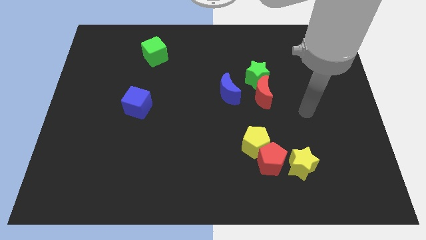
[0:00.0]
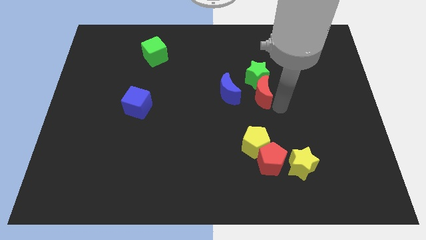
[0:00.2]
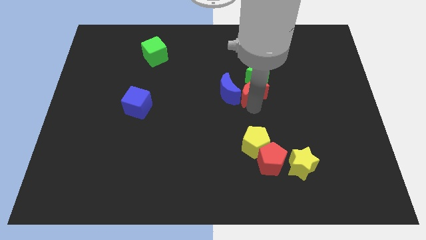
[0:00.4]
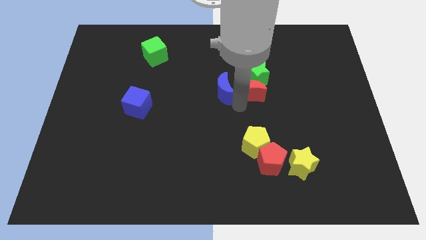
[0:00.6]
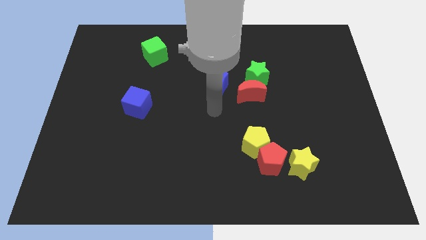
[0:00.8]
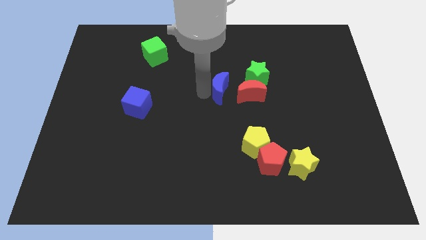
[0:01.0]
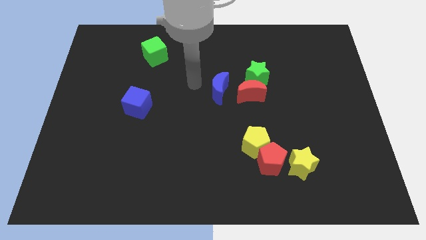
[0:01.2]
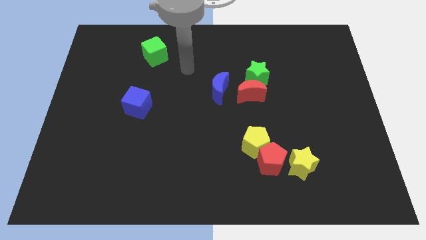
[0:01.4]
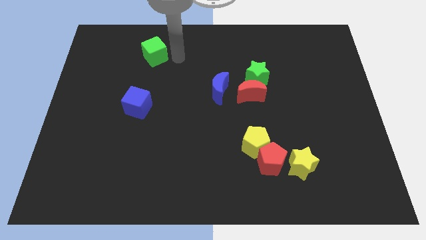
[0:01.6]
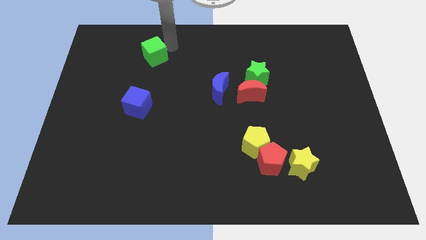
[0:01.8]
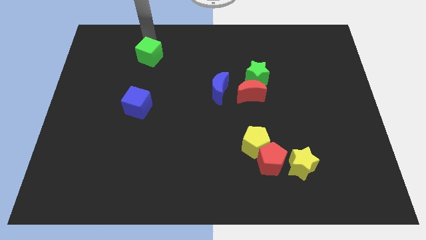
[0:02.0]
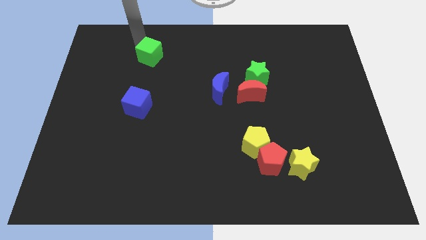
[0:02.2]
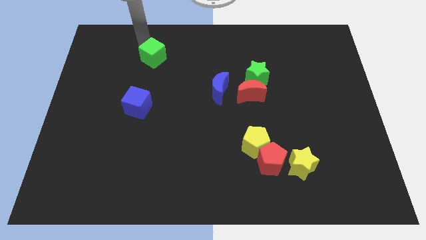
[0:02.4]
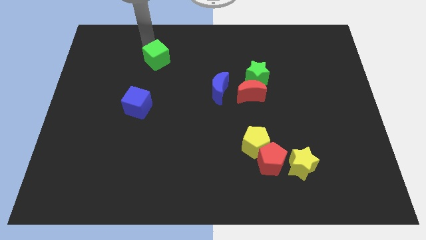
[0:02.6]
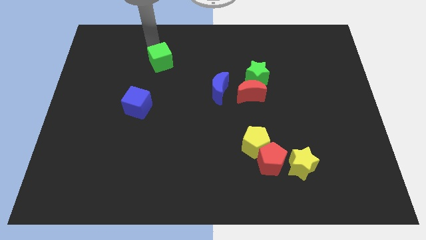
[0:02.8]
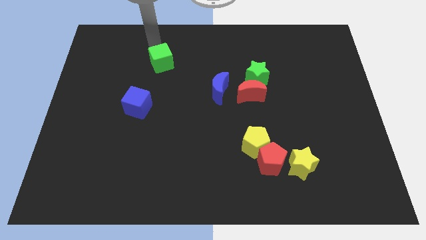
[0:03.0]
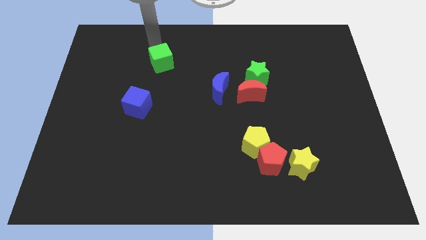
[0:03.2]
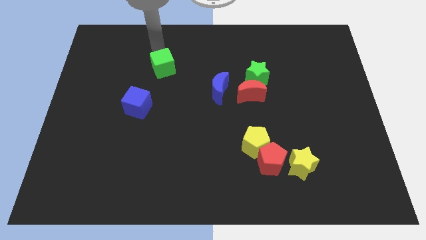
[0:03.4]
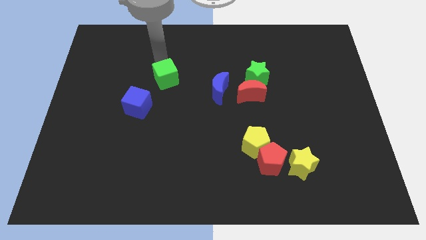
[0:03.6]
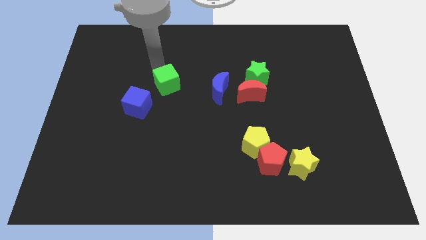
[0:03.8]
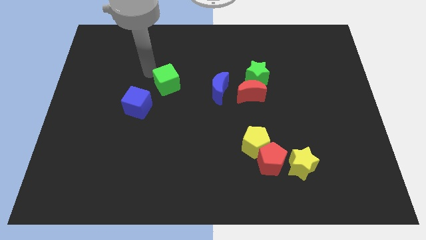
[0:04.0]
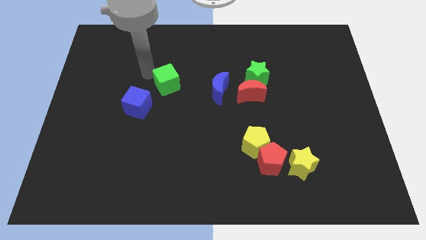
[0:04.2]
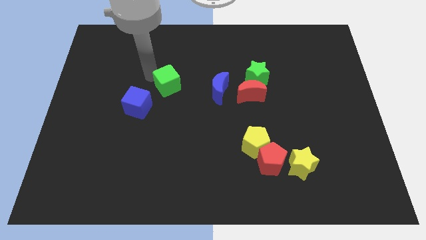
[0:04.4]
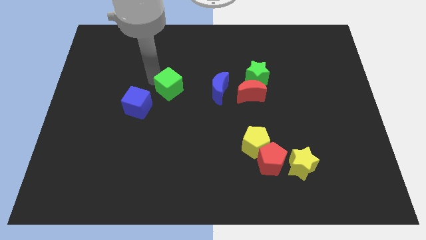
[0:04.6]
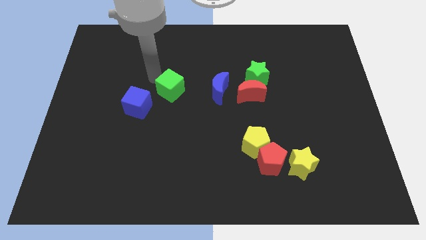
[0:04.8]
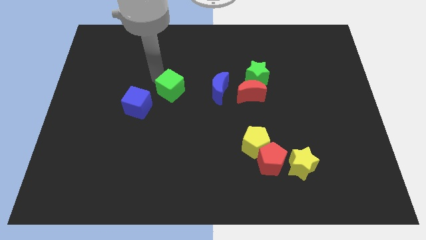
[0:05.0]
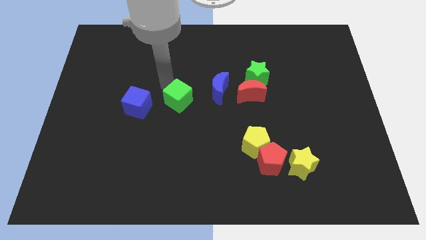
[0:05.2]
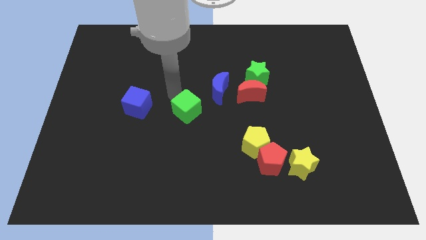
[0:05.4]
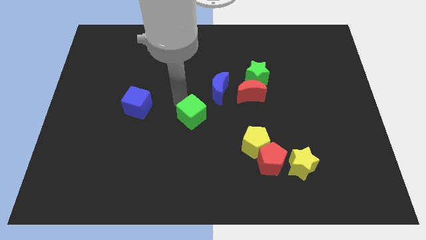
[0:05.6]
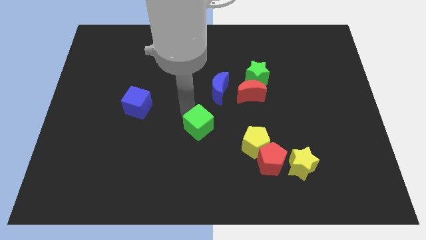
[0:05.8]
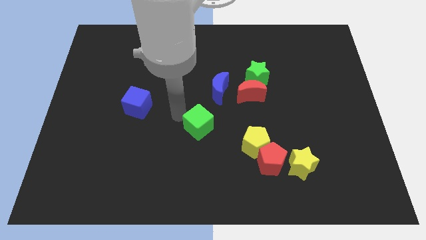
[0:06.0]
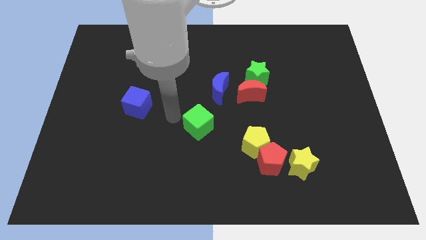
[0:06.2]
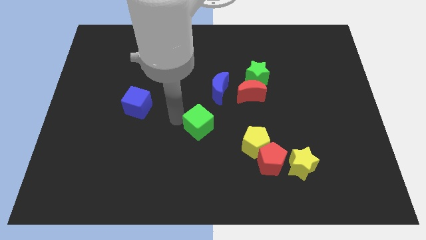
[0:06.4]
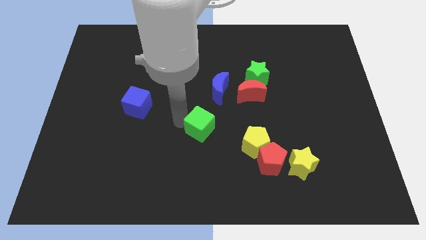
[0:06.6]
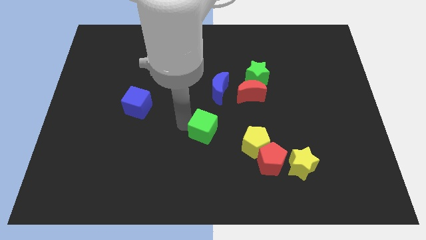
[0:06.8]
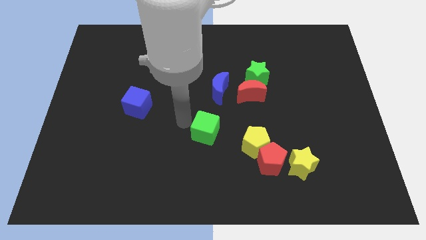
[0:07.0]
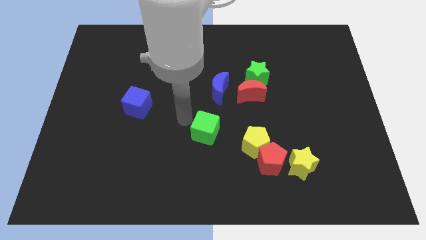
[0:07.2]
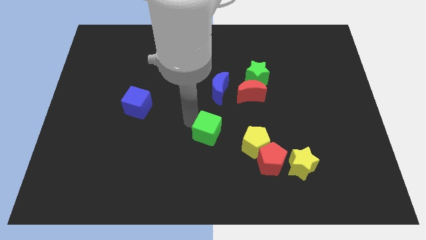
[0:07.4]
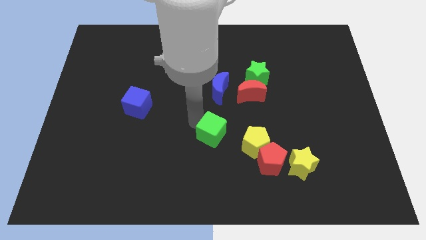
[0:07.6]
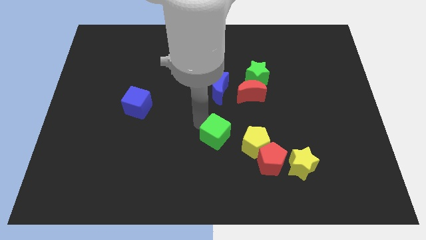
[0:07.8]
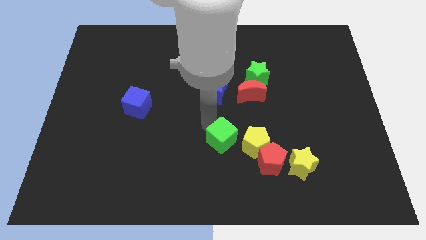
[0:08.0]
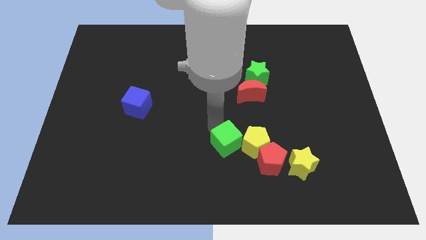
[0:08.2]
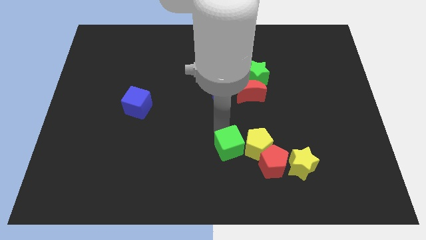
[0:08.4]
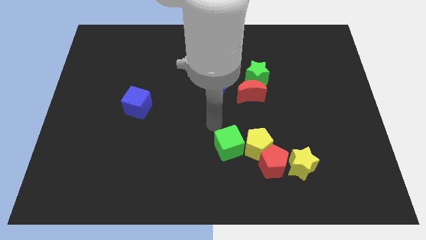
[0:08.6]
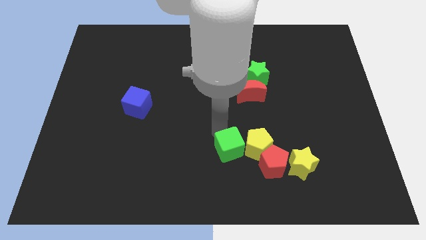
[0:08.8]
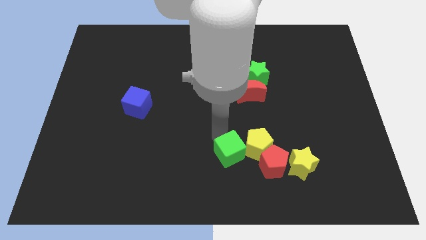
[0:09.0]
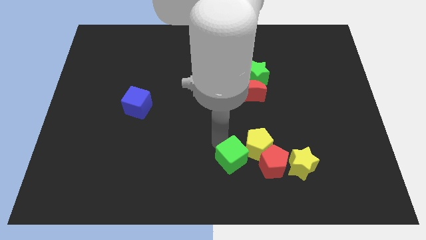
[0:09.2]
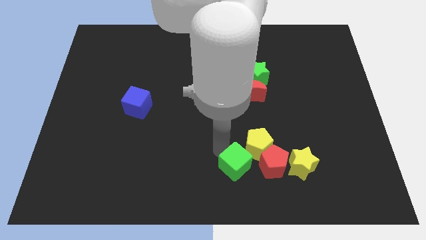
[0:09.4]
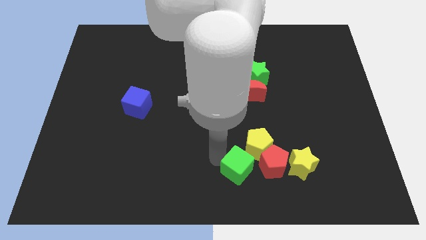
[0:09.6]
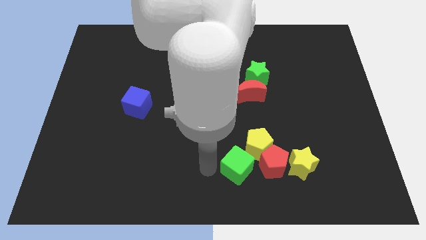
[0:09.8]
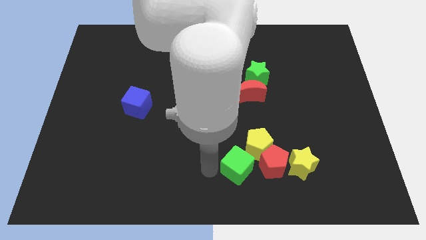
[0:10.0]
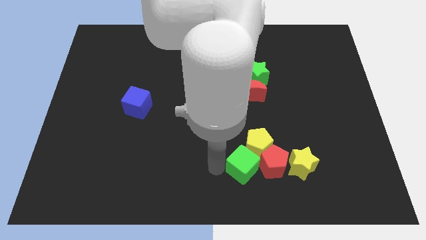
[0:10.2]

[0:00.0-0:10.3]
put the green cube to the red pentagon

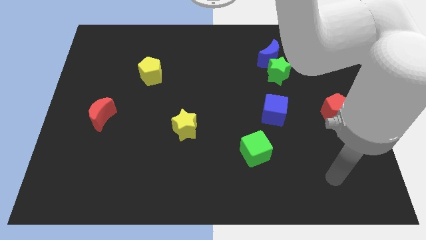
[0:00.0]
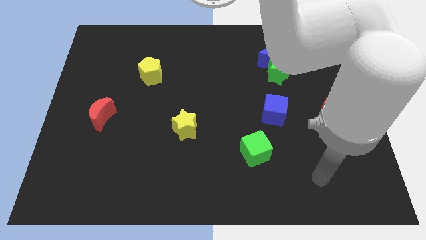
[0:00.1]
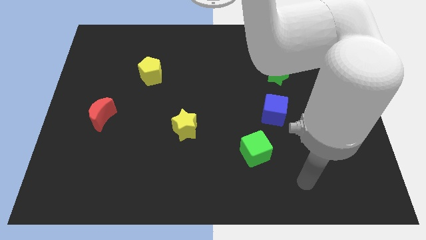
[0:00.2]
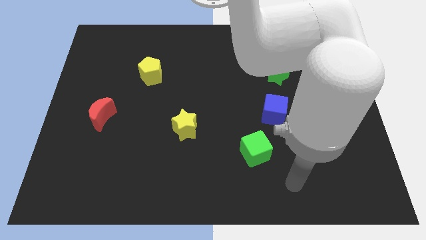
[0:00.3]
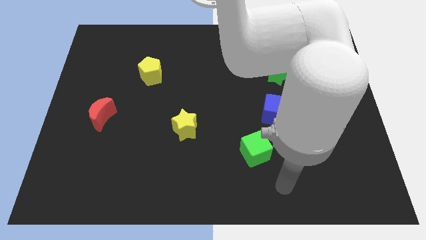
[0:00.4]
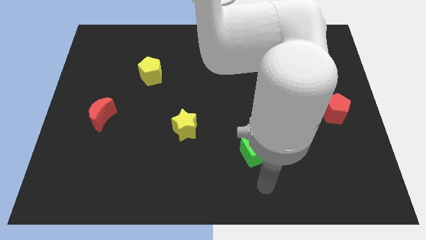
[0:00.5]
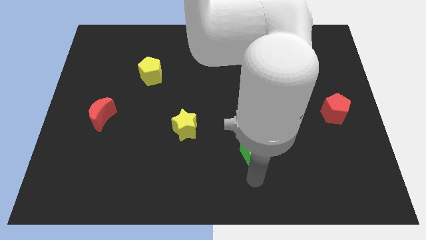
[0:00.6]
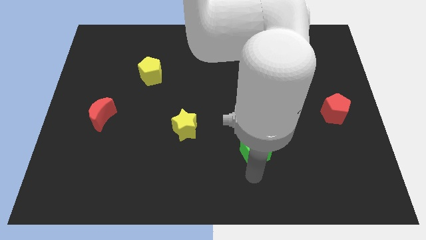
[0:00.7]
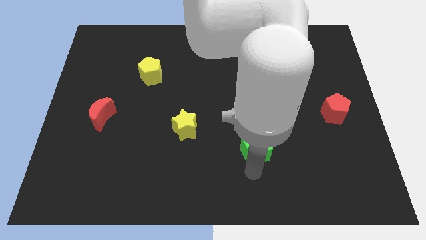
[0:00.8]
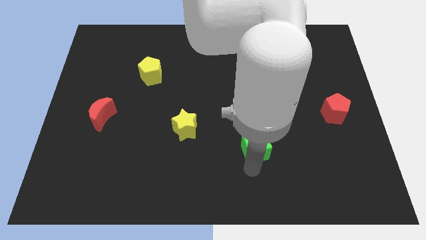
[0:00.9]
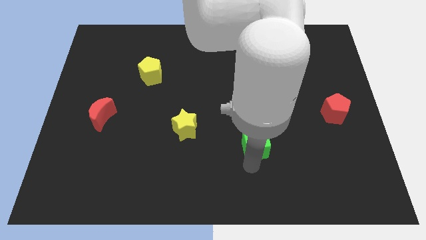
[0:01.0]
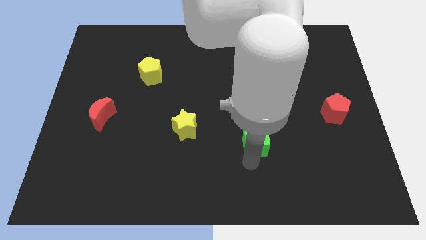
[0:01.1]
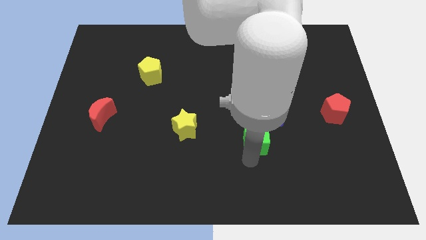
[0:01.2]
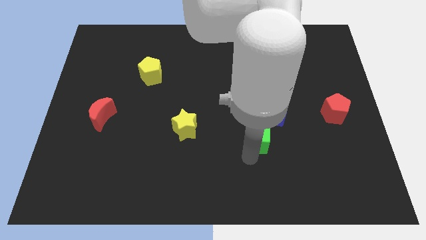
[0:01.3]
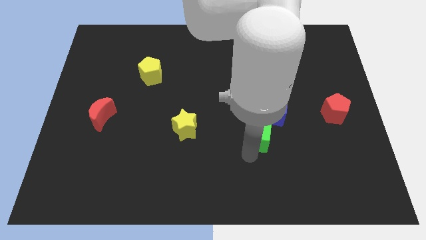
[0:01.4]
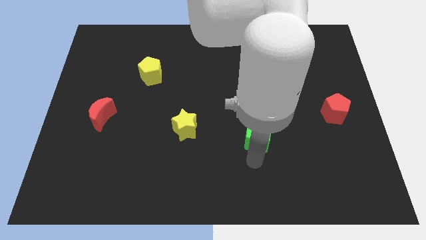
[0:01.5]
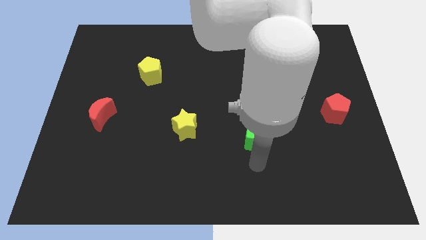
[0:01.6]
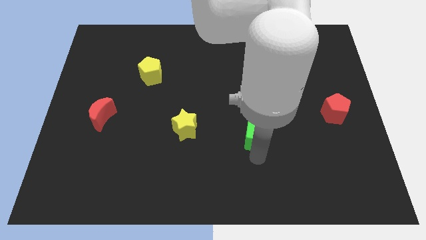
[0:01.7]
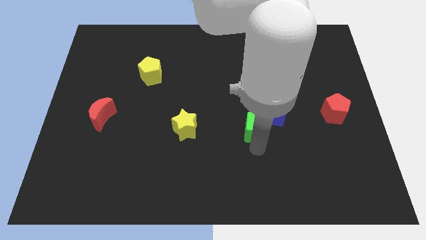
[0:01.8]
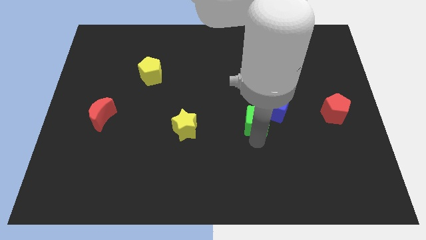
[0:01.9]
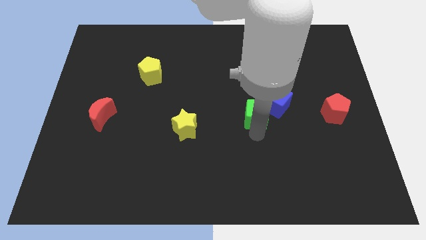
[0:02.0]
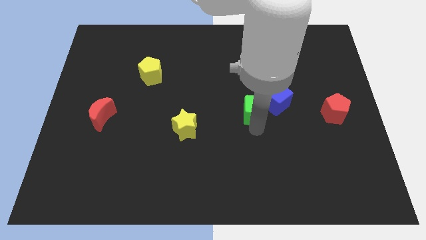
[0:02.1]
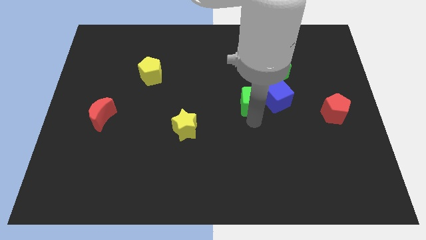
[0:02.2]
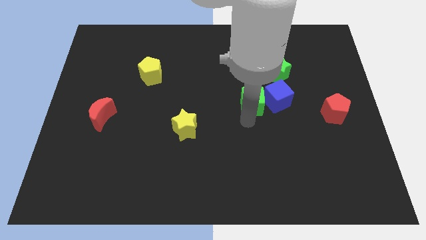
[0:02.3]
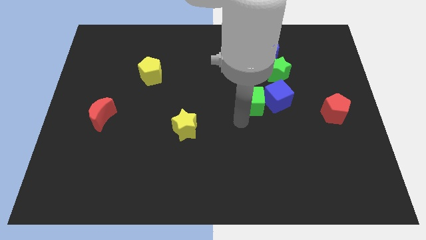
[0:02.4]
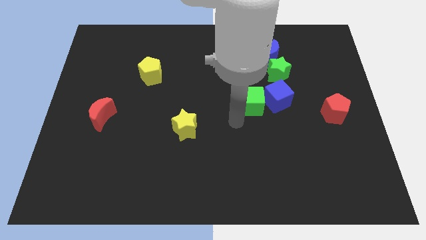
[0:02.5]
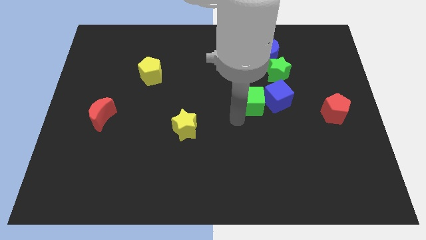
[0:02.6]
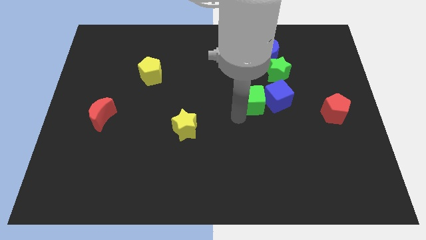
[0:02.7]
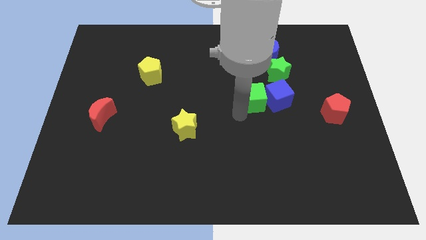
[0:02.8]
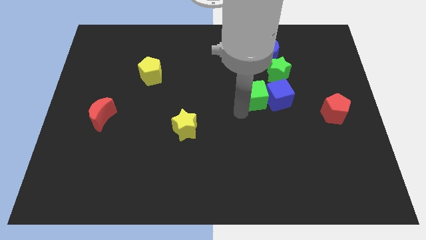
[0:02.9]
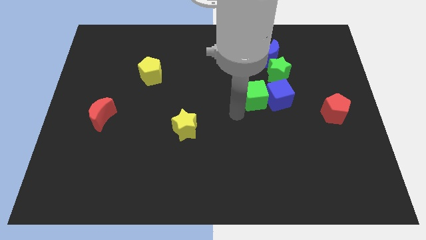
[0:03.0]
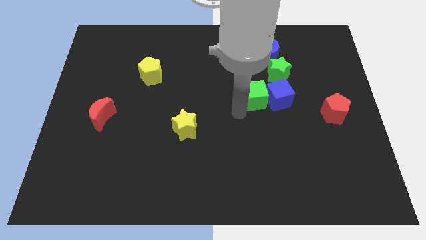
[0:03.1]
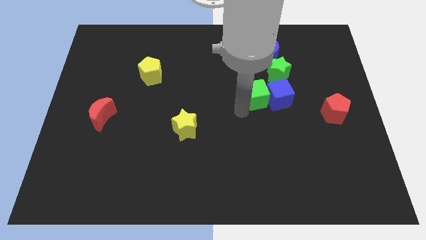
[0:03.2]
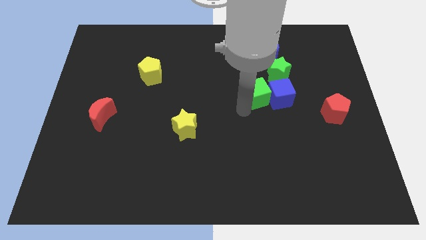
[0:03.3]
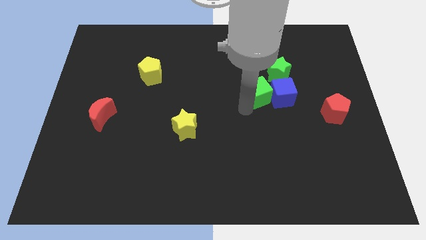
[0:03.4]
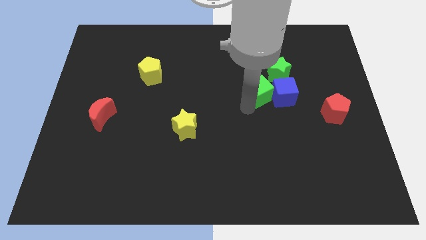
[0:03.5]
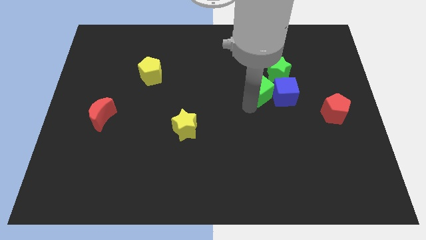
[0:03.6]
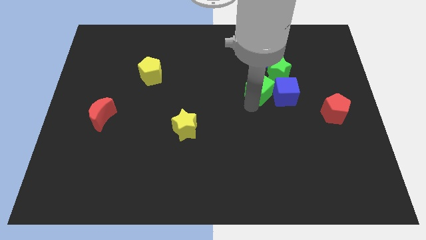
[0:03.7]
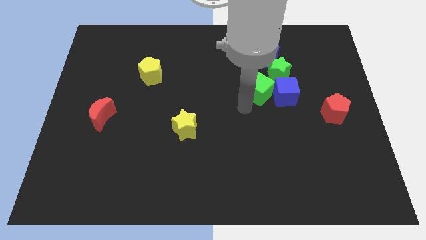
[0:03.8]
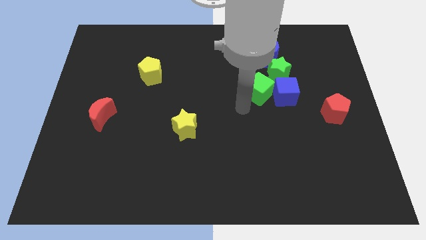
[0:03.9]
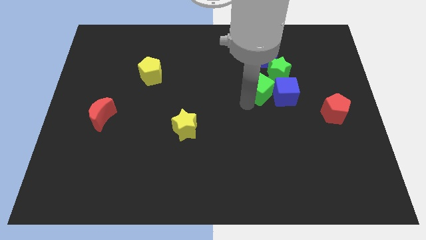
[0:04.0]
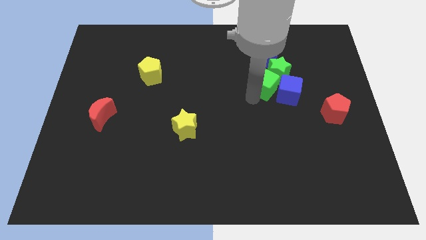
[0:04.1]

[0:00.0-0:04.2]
push the green cube next to the green star
